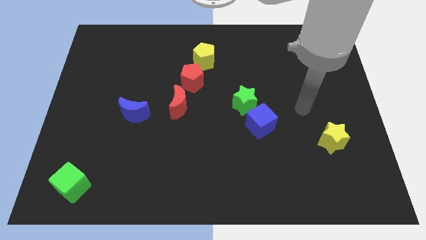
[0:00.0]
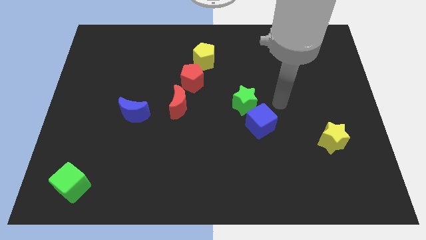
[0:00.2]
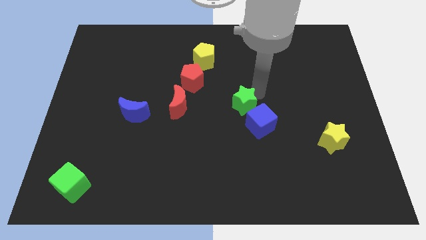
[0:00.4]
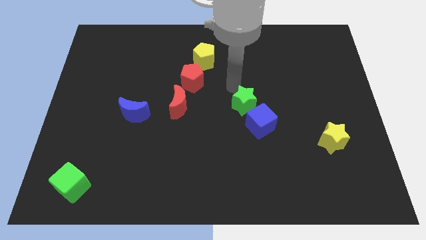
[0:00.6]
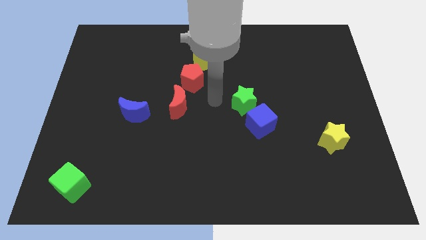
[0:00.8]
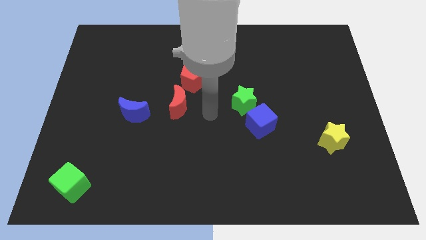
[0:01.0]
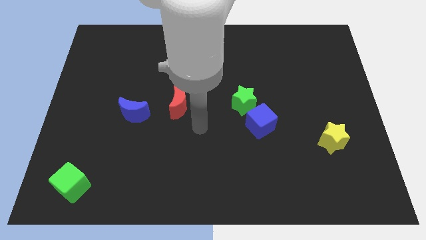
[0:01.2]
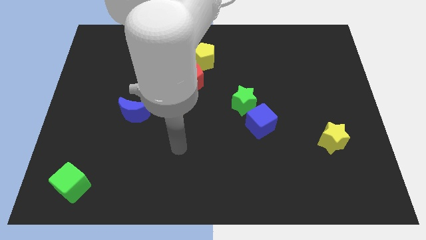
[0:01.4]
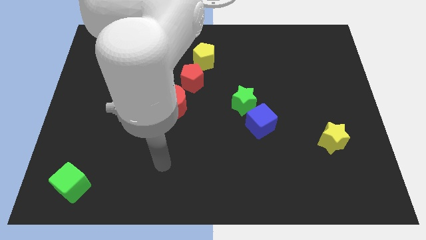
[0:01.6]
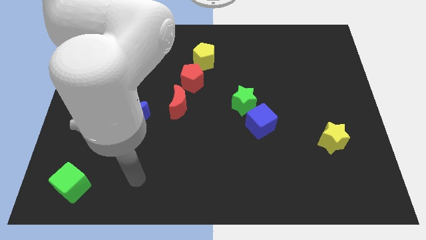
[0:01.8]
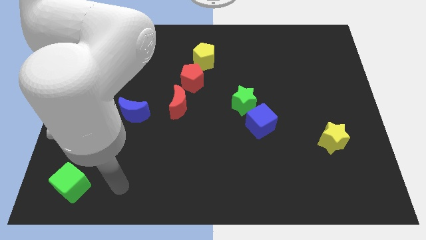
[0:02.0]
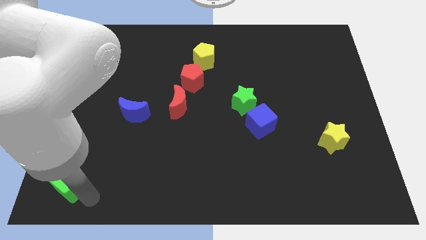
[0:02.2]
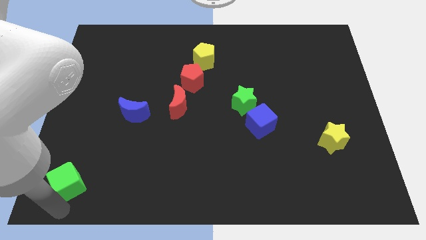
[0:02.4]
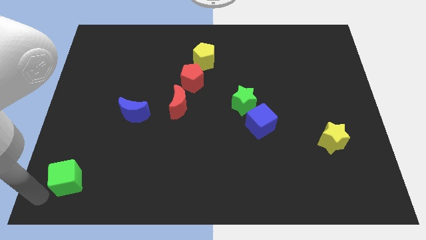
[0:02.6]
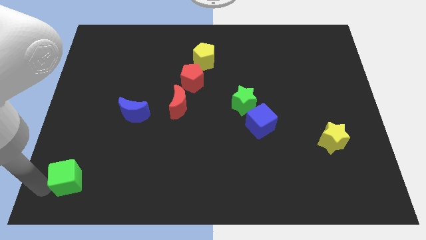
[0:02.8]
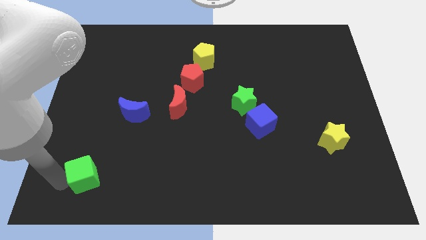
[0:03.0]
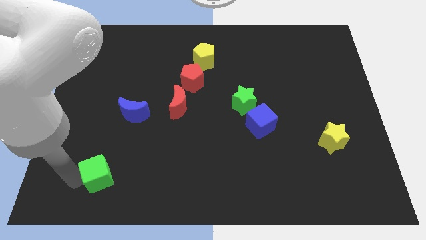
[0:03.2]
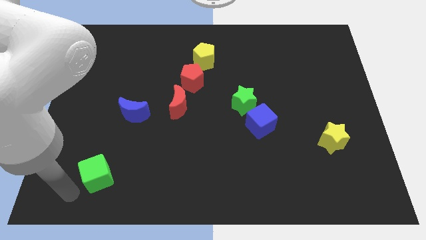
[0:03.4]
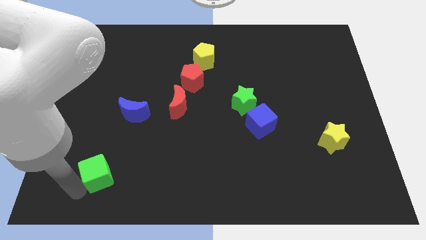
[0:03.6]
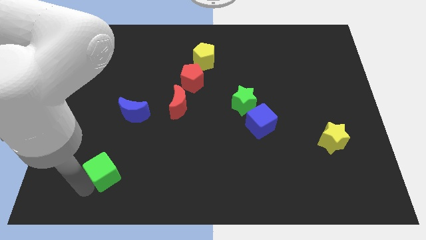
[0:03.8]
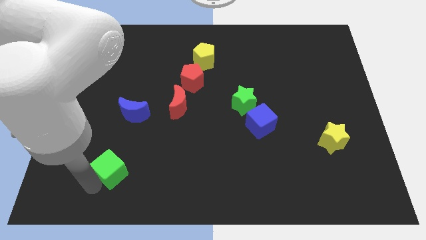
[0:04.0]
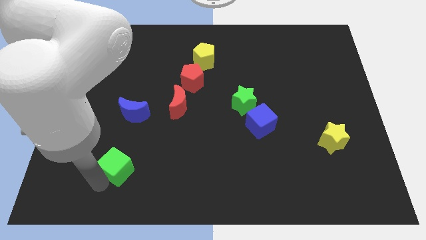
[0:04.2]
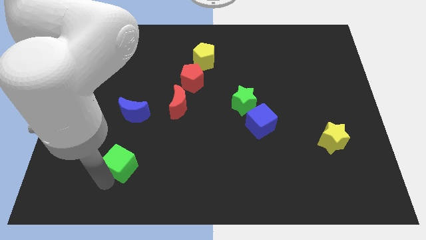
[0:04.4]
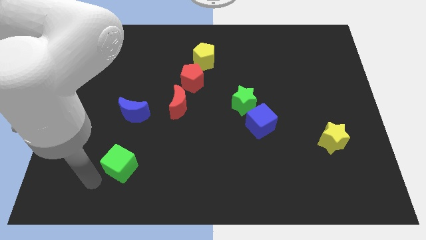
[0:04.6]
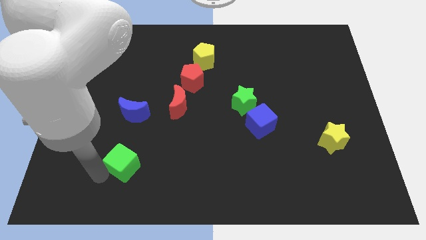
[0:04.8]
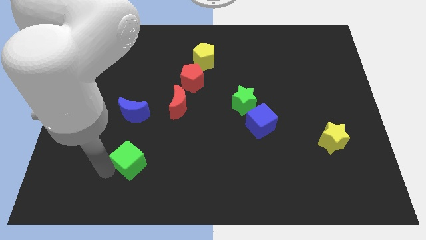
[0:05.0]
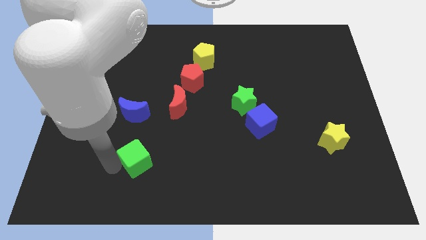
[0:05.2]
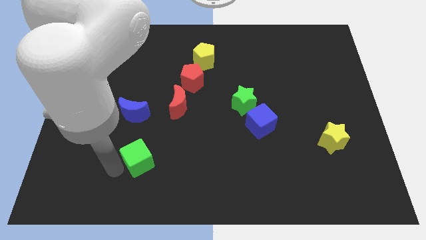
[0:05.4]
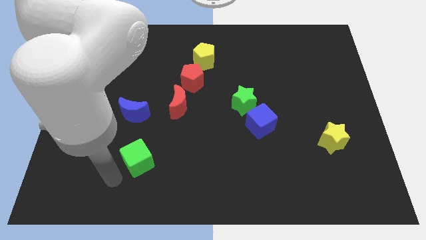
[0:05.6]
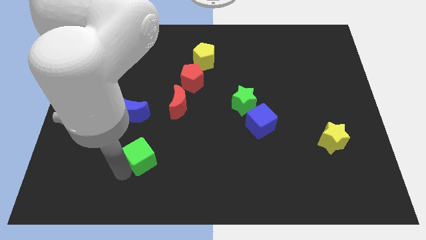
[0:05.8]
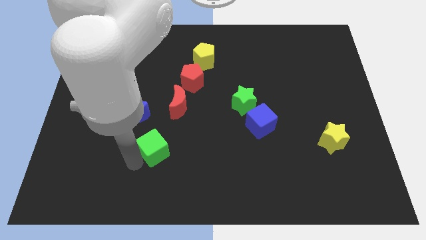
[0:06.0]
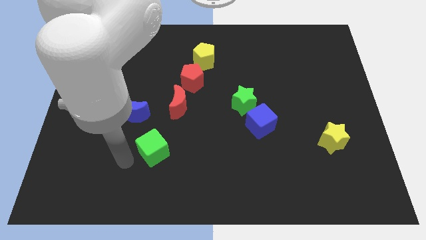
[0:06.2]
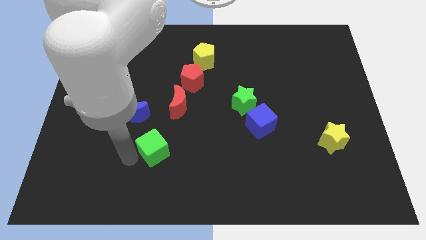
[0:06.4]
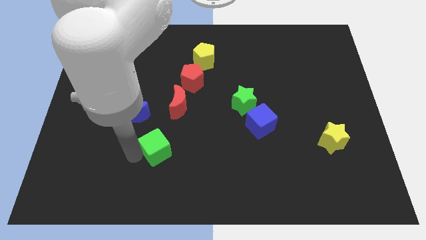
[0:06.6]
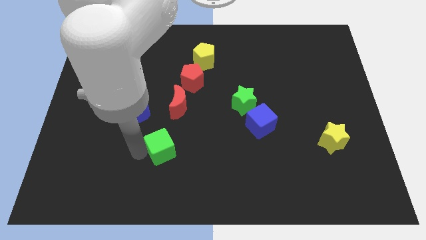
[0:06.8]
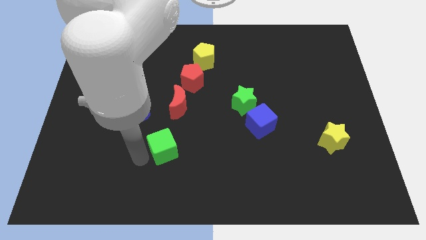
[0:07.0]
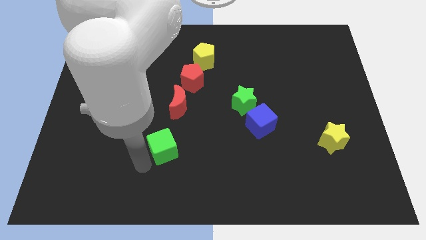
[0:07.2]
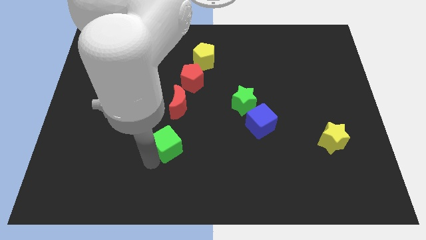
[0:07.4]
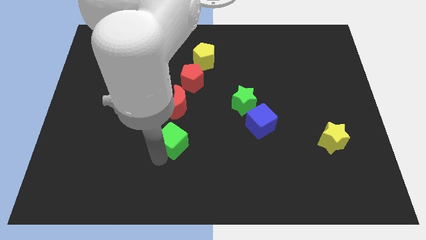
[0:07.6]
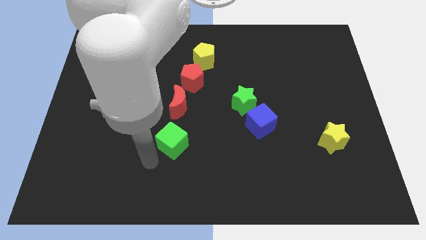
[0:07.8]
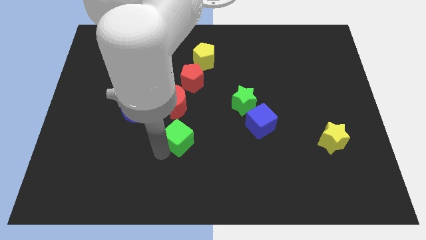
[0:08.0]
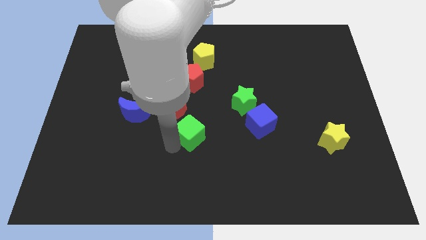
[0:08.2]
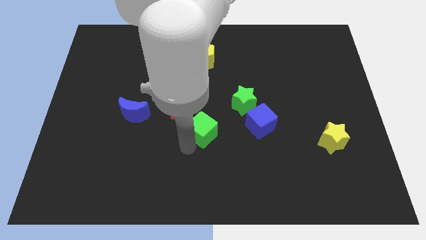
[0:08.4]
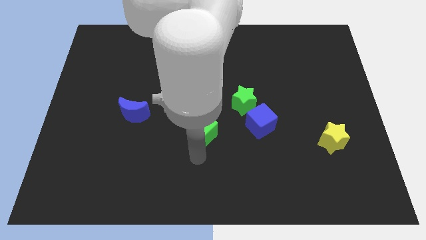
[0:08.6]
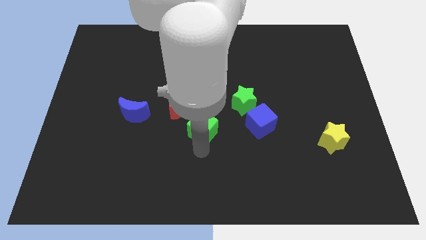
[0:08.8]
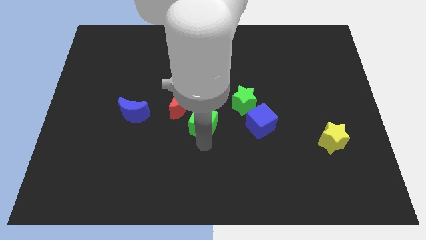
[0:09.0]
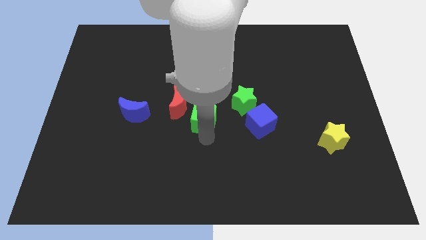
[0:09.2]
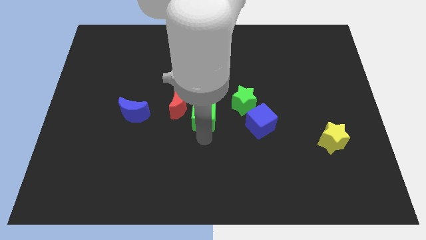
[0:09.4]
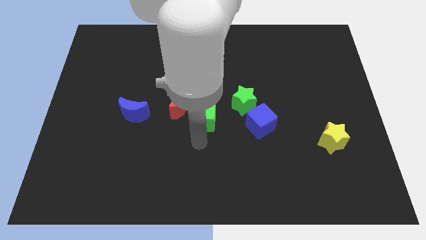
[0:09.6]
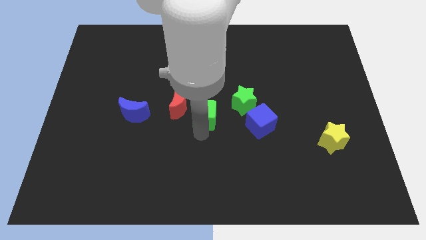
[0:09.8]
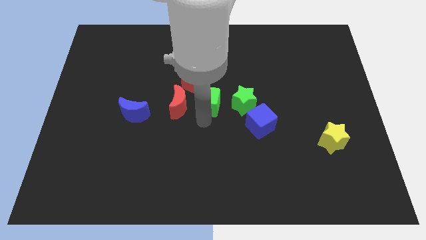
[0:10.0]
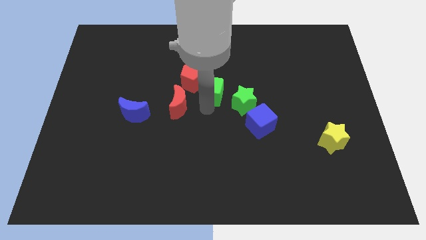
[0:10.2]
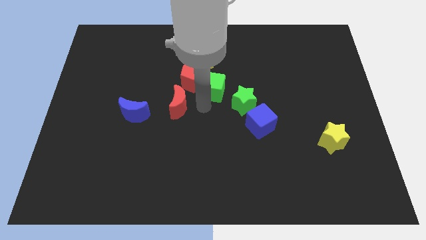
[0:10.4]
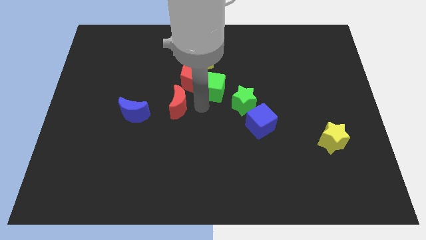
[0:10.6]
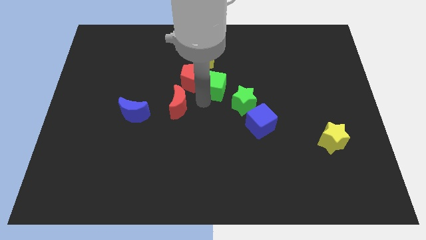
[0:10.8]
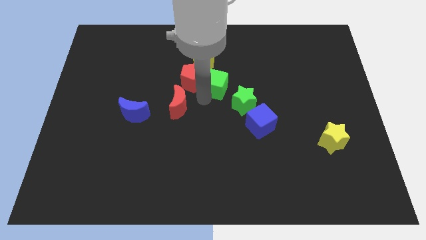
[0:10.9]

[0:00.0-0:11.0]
slide the green cube to the bottom right of the yellow pentagon

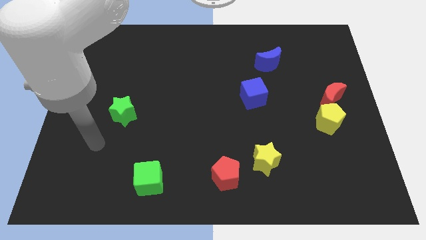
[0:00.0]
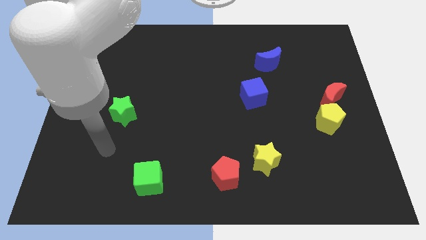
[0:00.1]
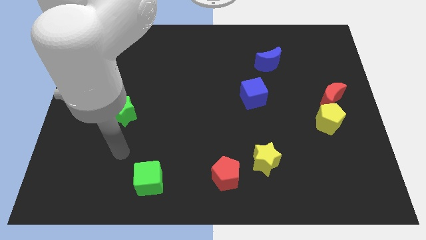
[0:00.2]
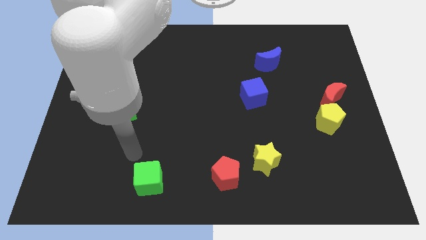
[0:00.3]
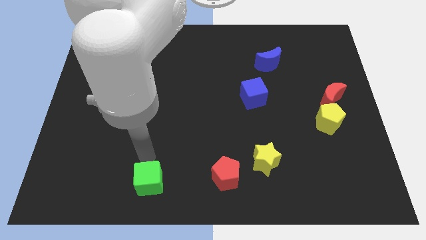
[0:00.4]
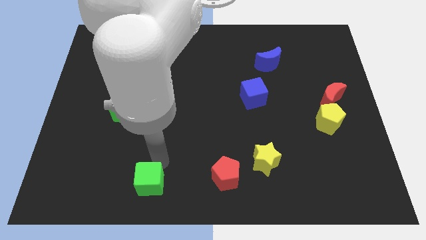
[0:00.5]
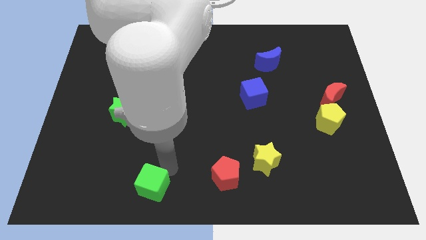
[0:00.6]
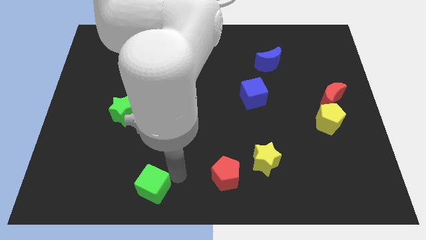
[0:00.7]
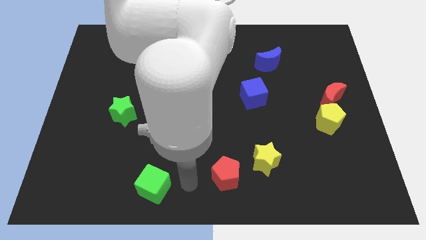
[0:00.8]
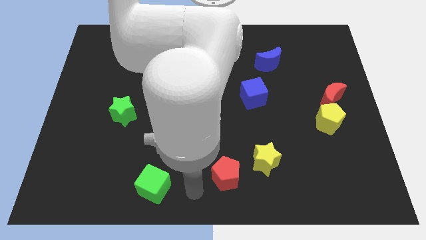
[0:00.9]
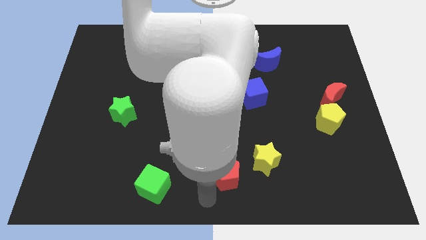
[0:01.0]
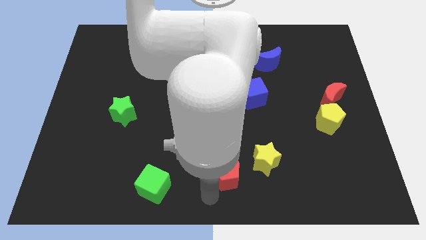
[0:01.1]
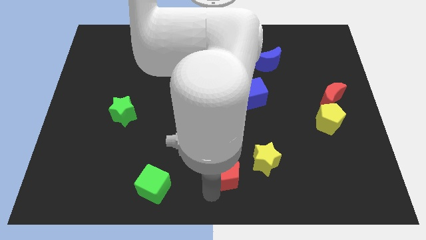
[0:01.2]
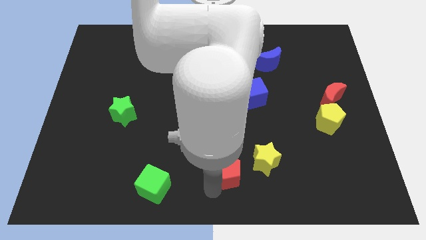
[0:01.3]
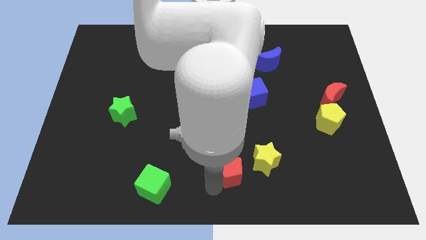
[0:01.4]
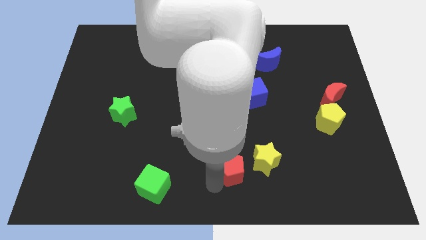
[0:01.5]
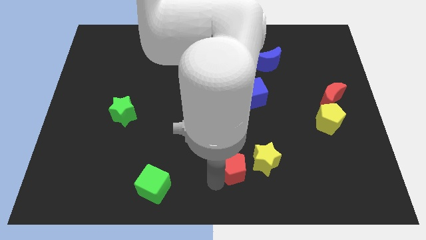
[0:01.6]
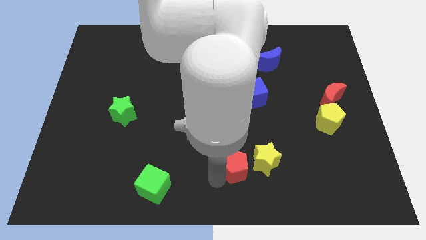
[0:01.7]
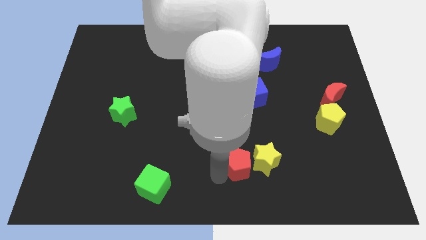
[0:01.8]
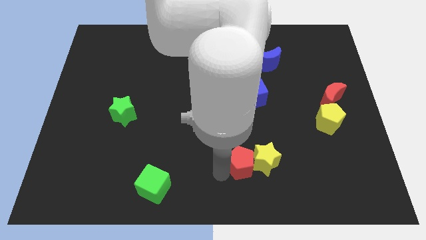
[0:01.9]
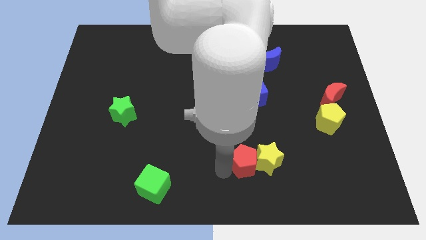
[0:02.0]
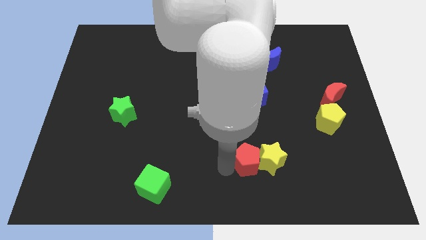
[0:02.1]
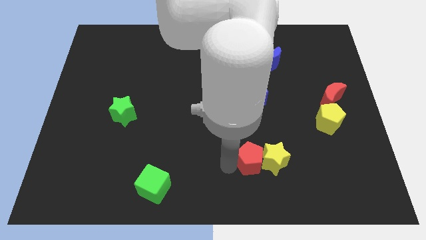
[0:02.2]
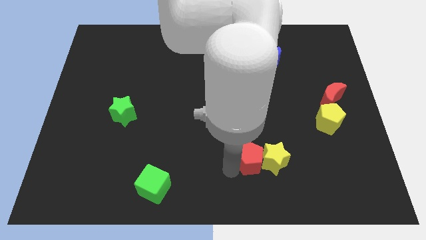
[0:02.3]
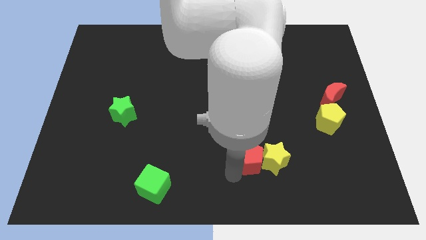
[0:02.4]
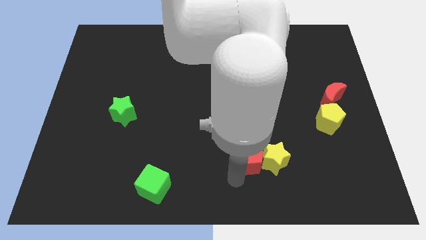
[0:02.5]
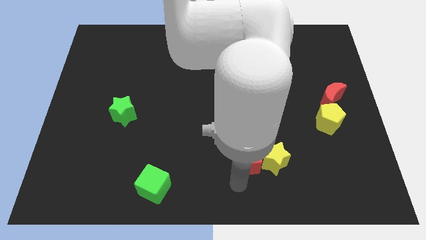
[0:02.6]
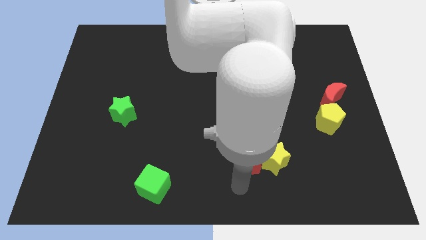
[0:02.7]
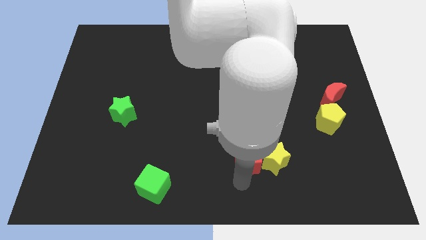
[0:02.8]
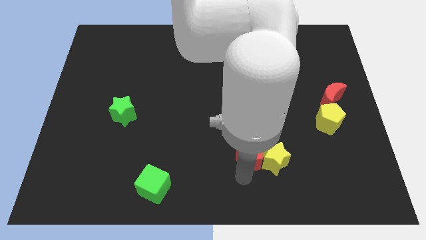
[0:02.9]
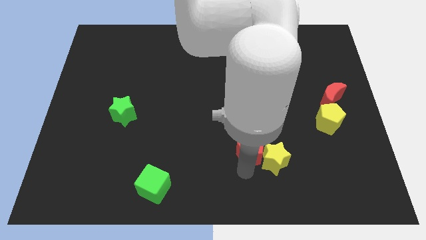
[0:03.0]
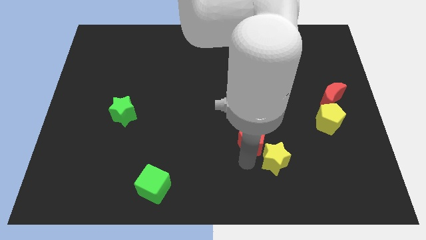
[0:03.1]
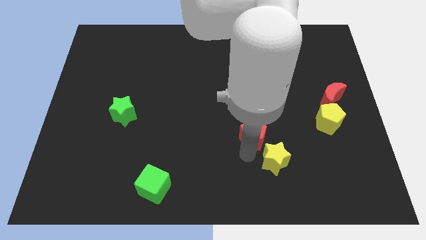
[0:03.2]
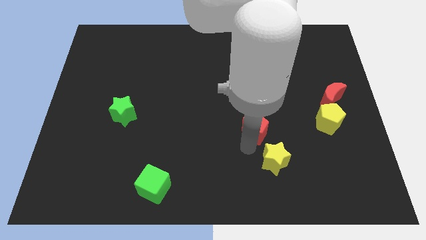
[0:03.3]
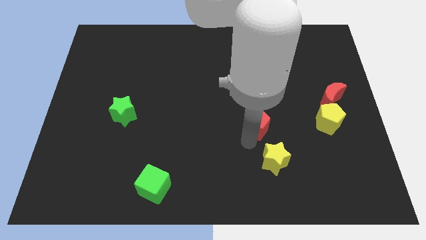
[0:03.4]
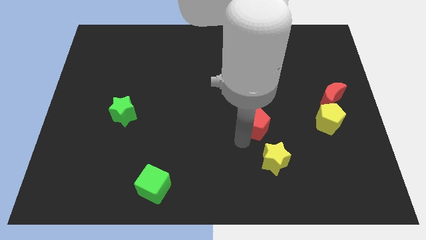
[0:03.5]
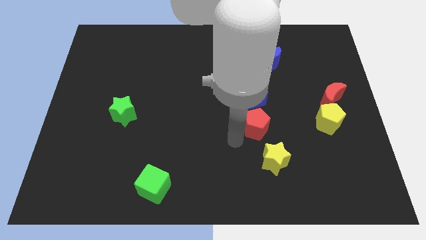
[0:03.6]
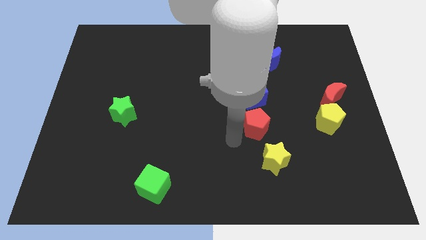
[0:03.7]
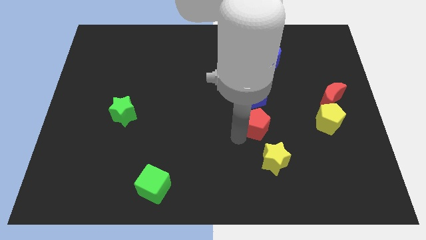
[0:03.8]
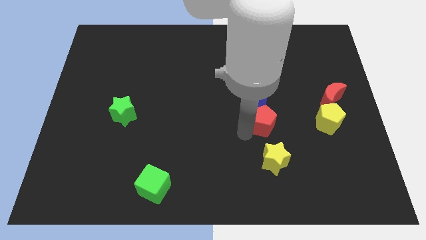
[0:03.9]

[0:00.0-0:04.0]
move the red pentagon to the bottom right side of the blue cube
